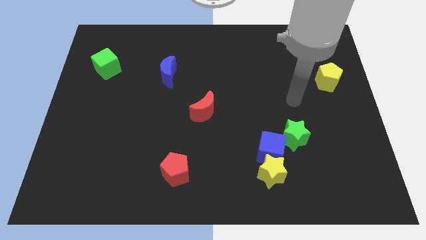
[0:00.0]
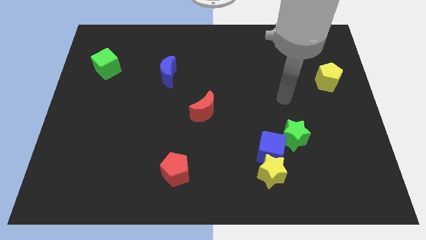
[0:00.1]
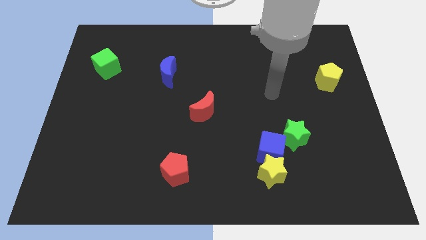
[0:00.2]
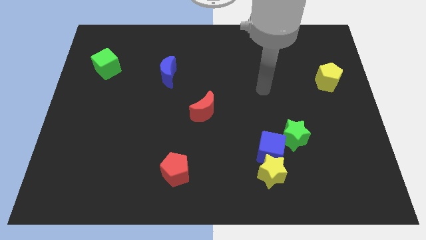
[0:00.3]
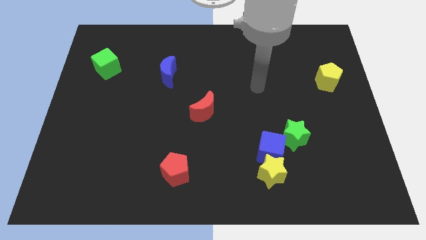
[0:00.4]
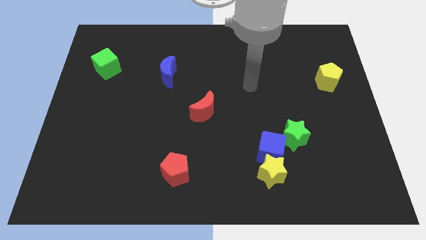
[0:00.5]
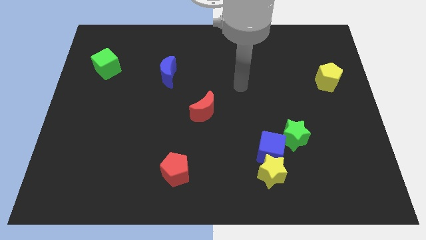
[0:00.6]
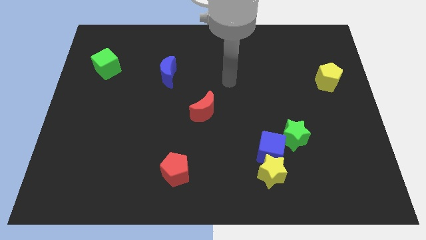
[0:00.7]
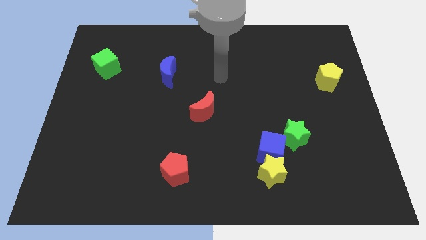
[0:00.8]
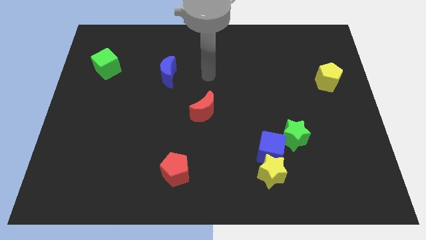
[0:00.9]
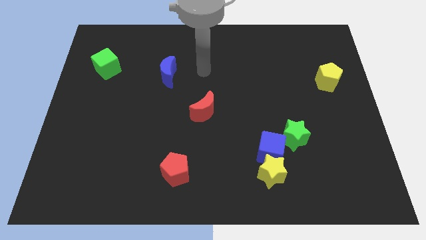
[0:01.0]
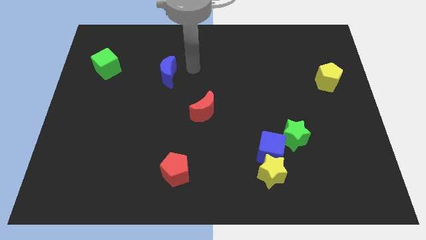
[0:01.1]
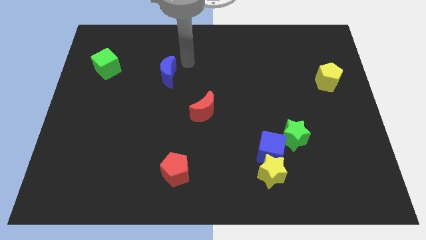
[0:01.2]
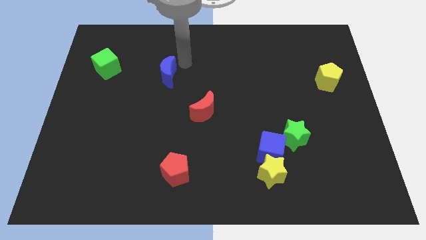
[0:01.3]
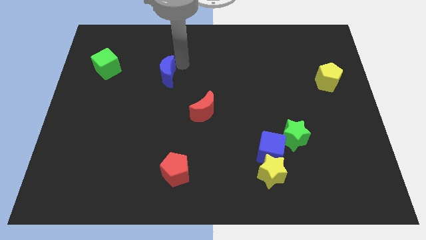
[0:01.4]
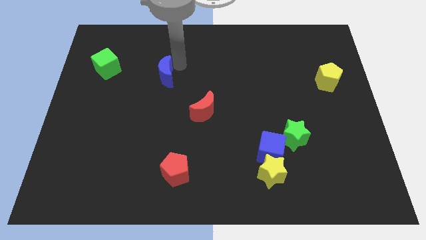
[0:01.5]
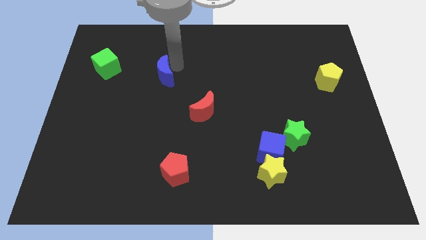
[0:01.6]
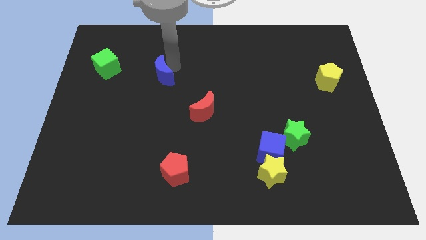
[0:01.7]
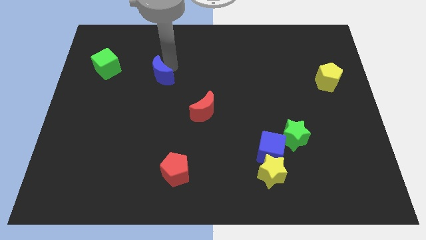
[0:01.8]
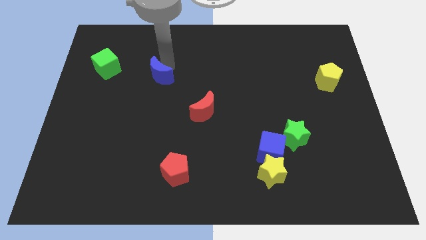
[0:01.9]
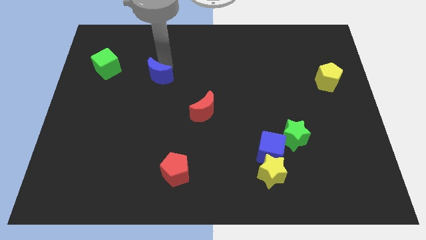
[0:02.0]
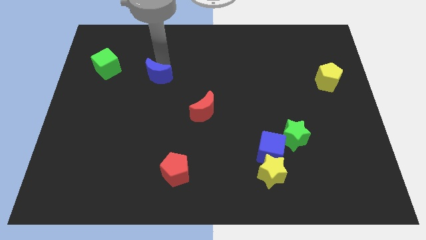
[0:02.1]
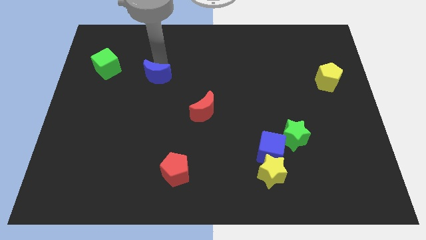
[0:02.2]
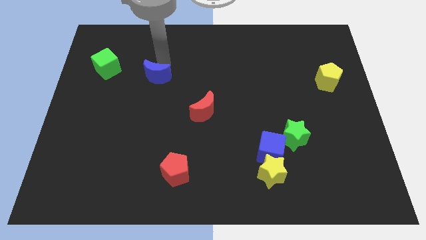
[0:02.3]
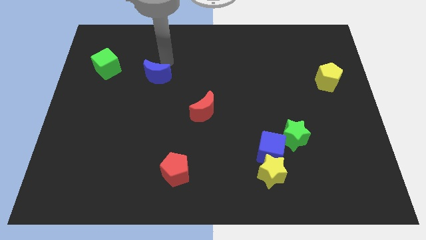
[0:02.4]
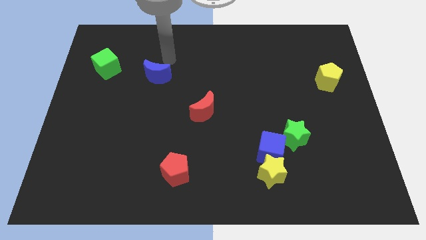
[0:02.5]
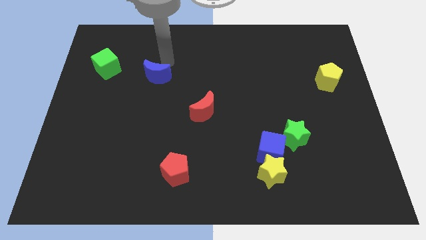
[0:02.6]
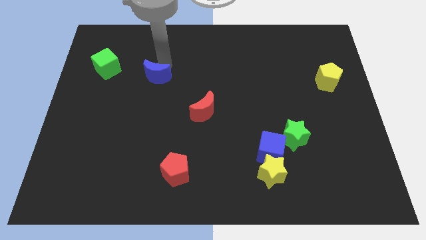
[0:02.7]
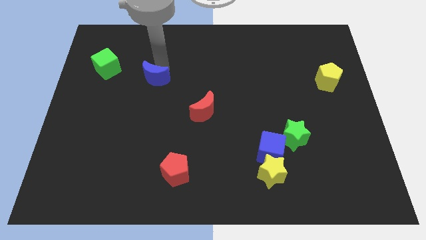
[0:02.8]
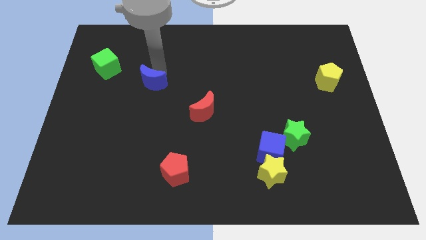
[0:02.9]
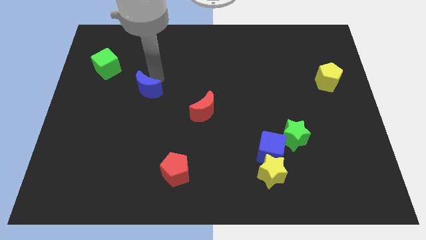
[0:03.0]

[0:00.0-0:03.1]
slightly push the blue moon diagonally downwards and left

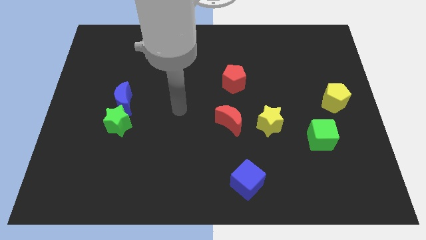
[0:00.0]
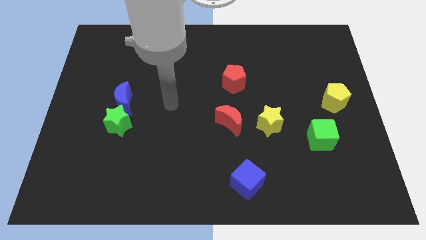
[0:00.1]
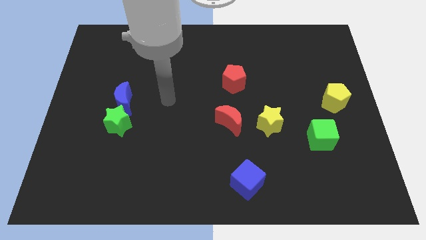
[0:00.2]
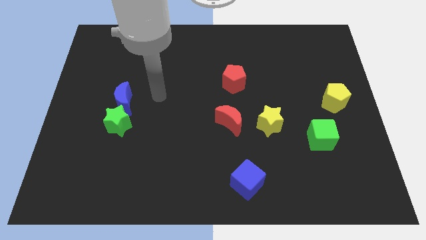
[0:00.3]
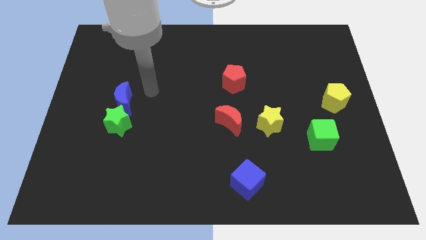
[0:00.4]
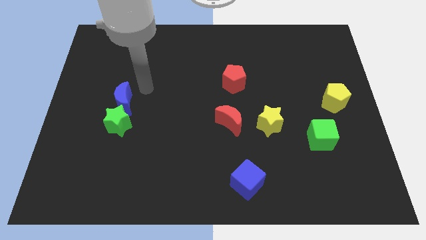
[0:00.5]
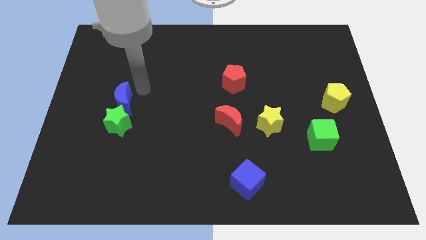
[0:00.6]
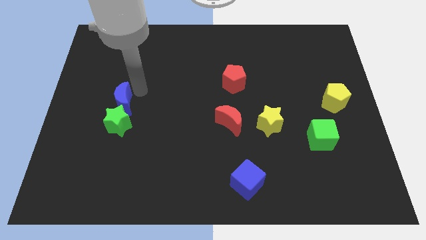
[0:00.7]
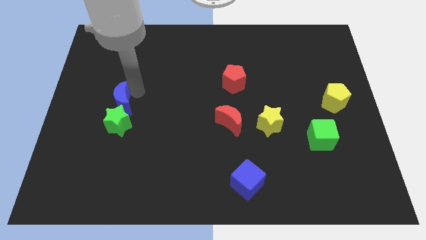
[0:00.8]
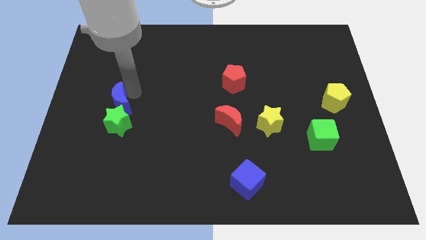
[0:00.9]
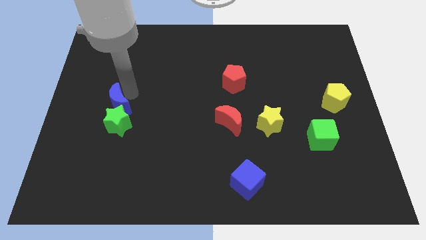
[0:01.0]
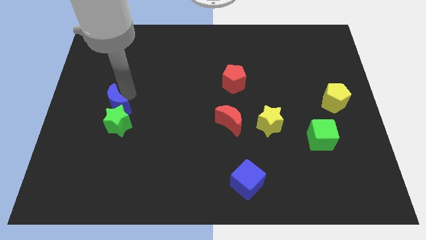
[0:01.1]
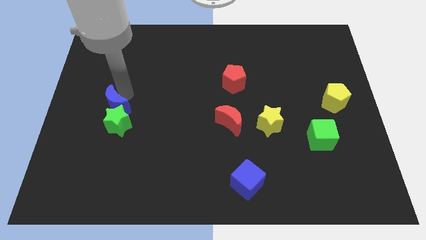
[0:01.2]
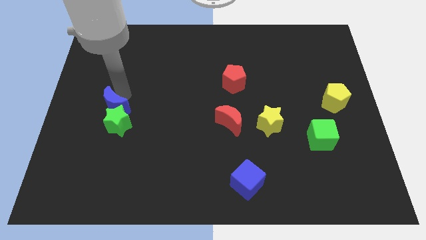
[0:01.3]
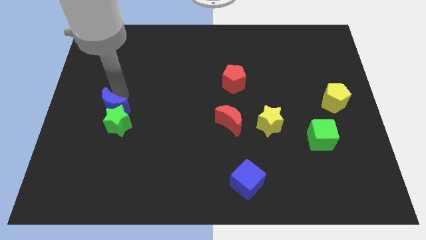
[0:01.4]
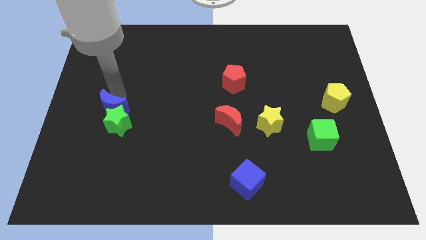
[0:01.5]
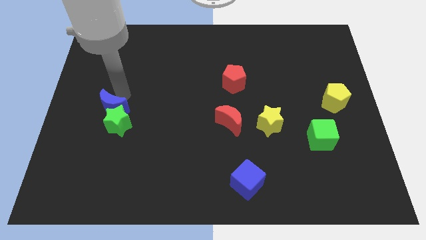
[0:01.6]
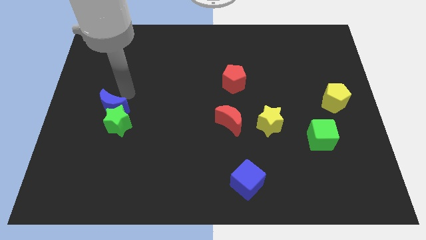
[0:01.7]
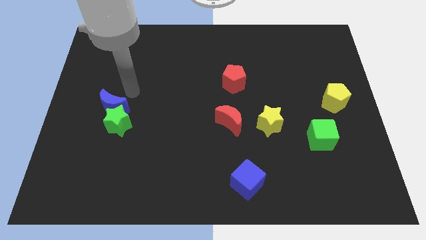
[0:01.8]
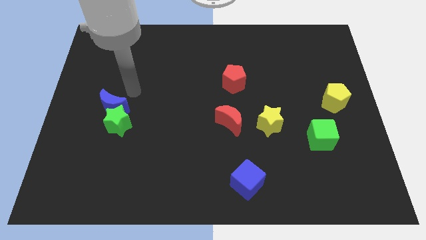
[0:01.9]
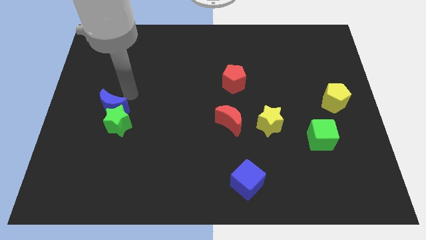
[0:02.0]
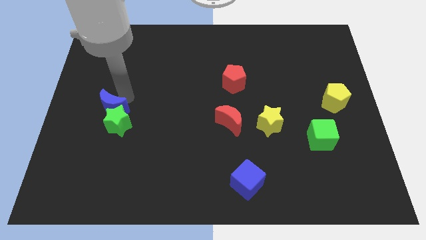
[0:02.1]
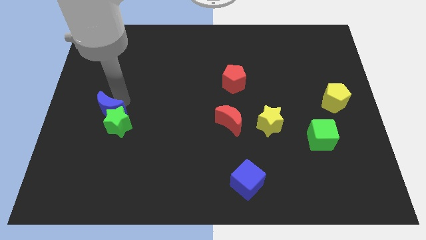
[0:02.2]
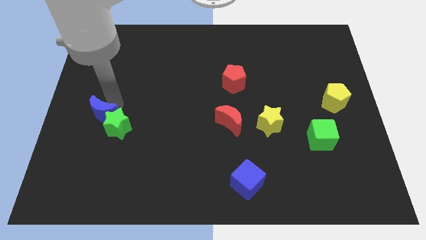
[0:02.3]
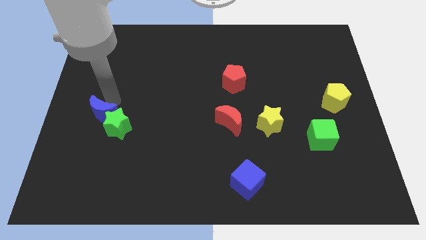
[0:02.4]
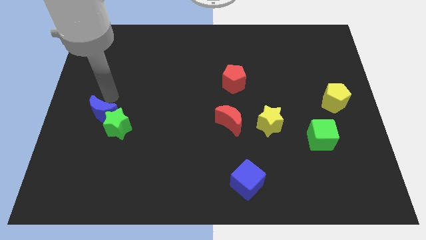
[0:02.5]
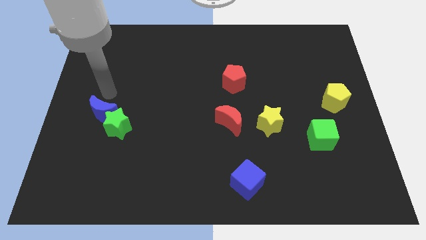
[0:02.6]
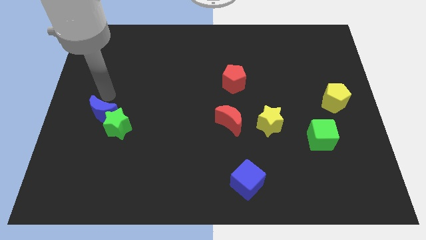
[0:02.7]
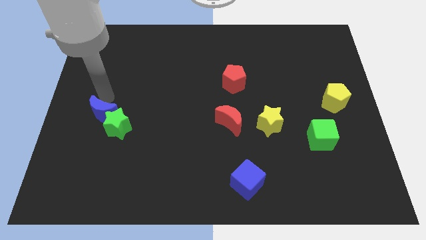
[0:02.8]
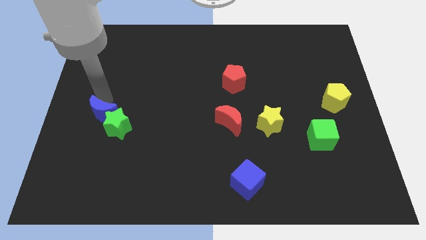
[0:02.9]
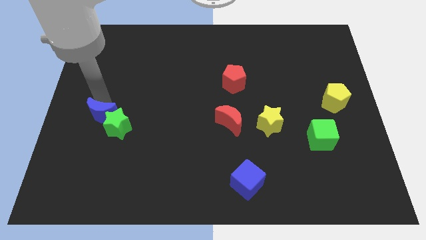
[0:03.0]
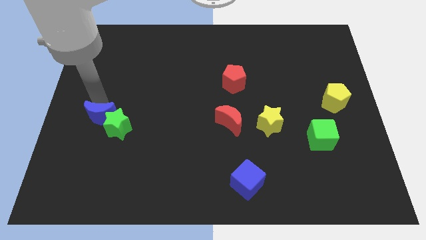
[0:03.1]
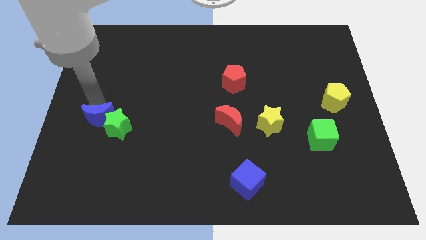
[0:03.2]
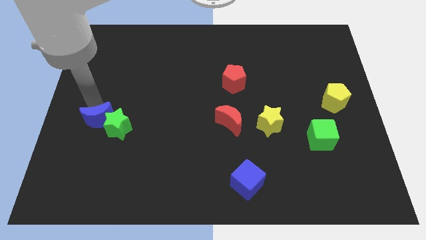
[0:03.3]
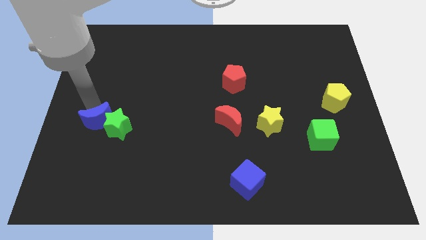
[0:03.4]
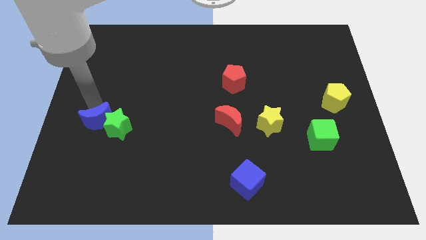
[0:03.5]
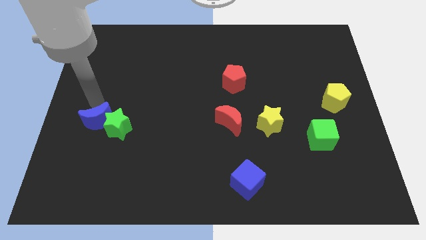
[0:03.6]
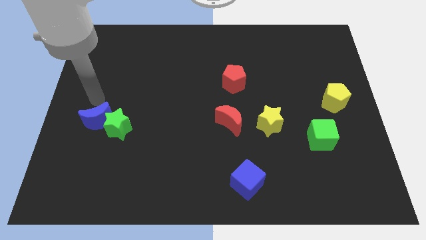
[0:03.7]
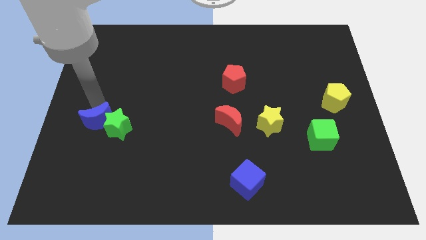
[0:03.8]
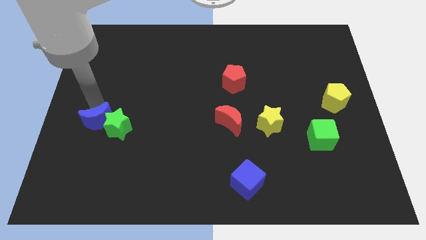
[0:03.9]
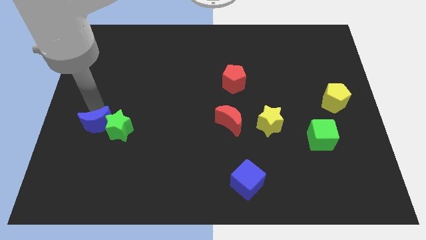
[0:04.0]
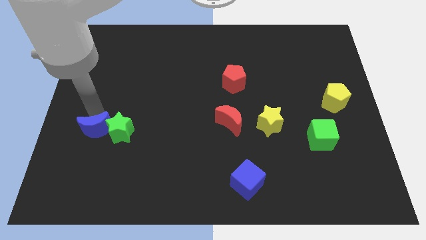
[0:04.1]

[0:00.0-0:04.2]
move the blue moon downwards a little

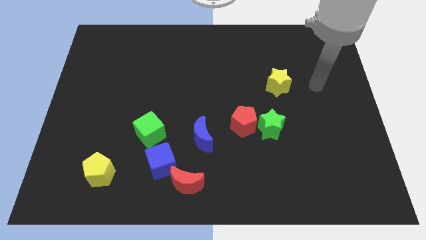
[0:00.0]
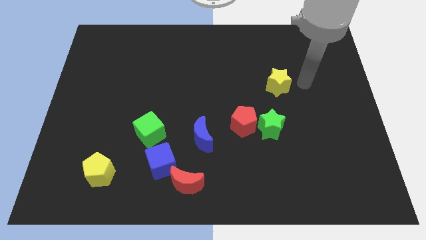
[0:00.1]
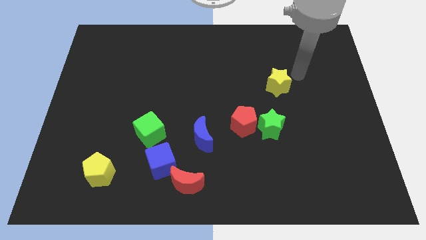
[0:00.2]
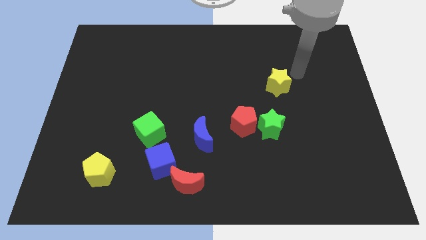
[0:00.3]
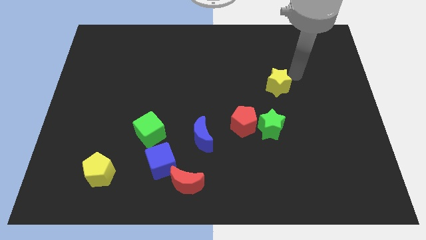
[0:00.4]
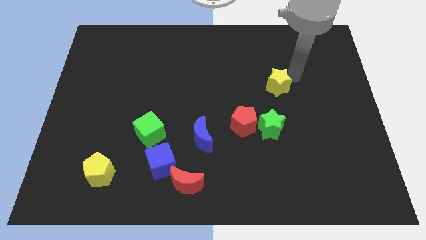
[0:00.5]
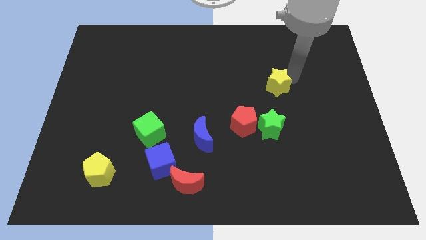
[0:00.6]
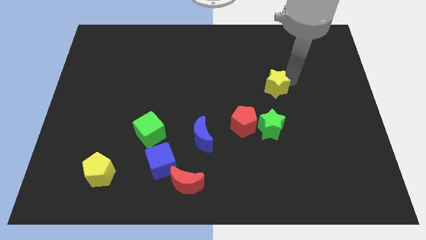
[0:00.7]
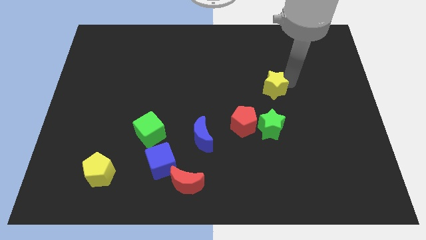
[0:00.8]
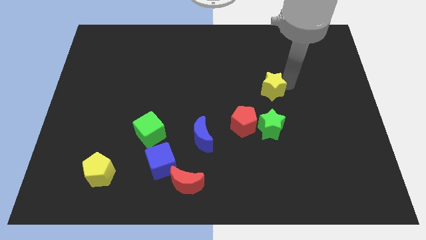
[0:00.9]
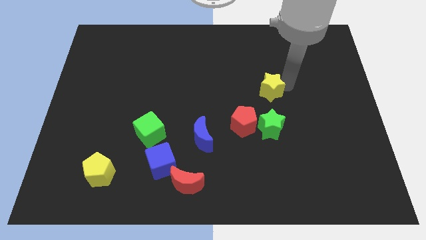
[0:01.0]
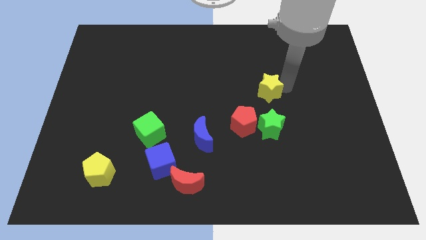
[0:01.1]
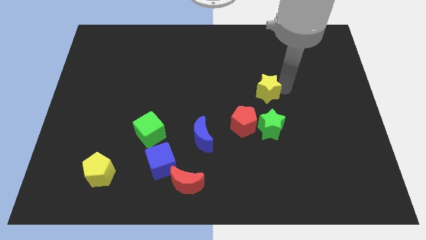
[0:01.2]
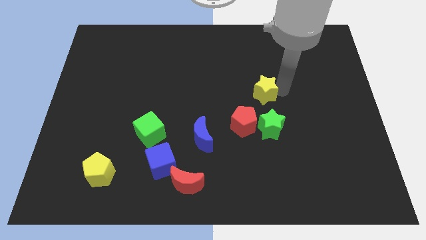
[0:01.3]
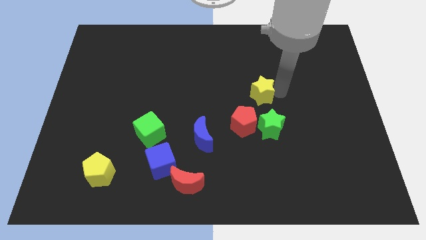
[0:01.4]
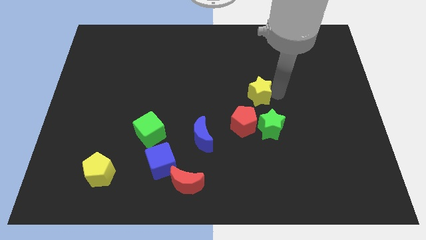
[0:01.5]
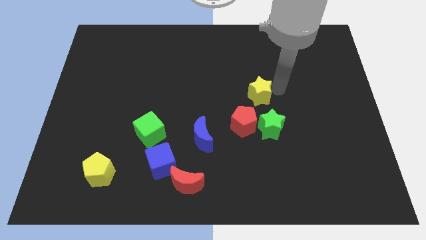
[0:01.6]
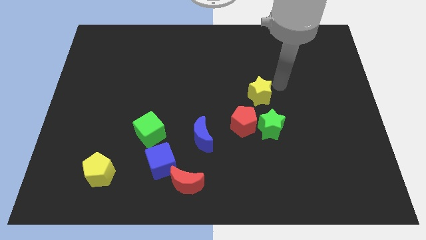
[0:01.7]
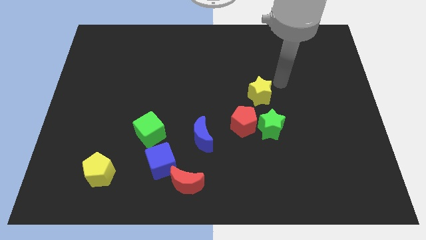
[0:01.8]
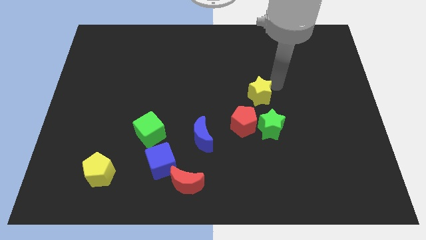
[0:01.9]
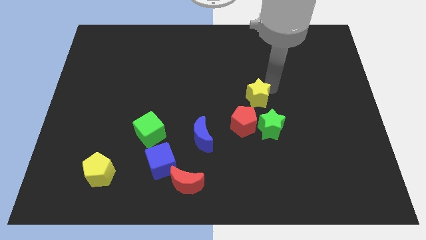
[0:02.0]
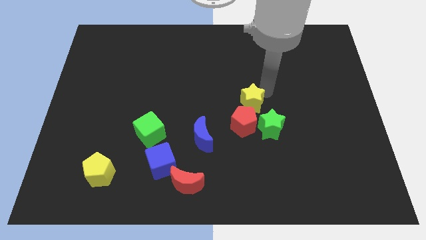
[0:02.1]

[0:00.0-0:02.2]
move the yellow star downwards and left diagonally slightly
